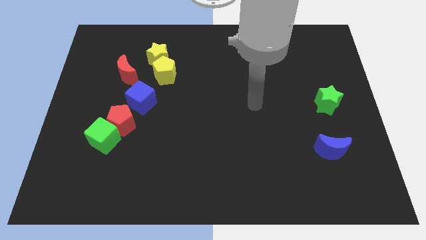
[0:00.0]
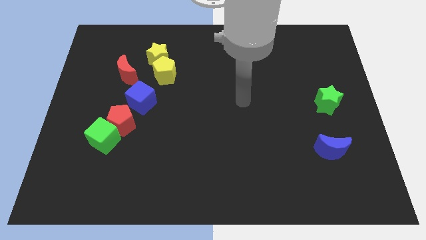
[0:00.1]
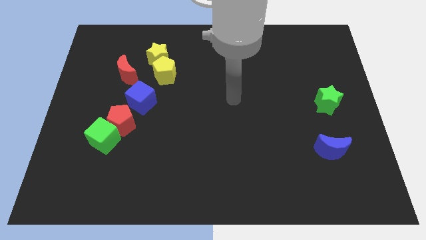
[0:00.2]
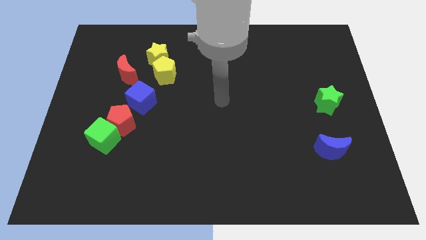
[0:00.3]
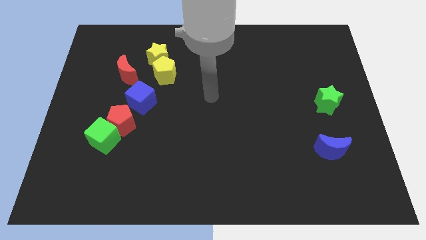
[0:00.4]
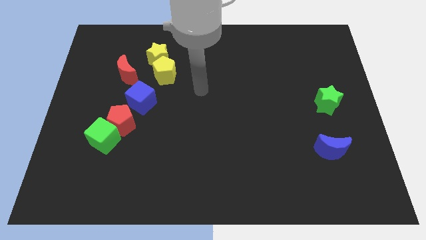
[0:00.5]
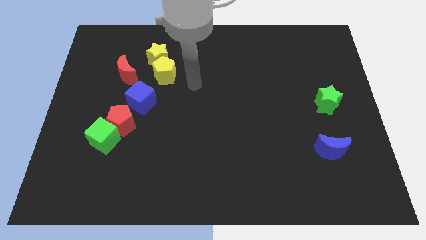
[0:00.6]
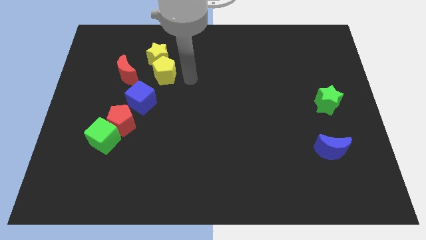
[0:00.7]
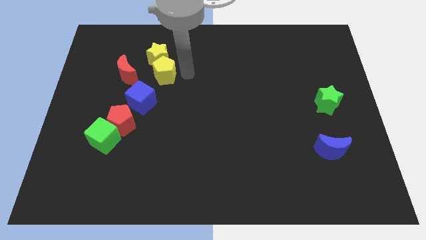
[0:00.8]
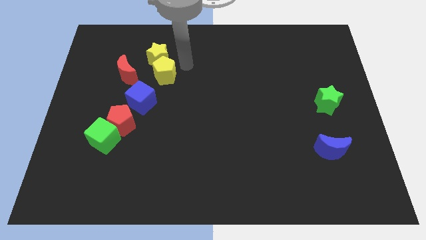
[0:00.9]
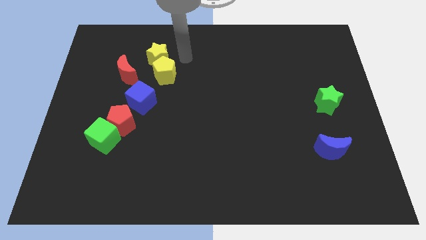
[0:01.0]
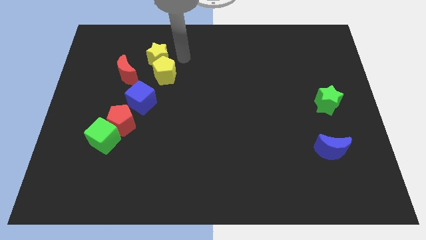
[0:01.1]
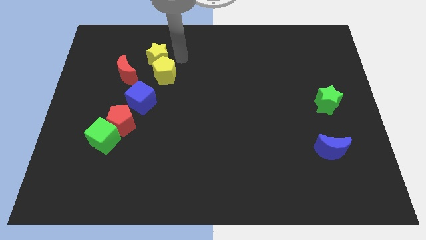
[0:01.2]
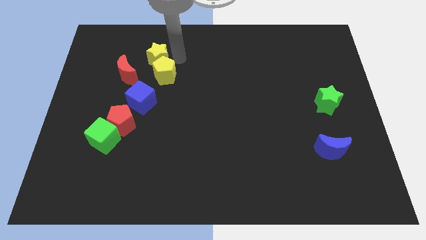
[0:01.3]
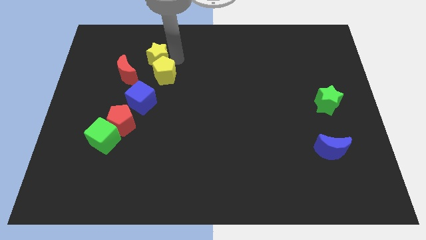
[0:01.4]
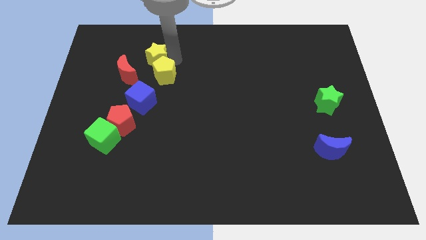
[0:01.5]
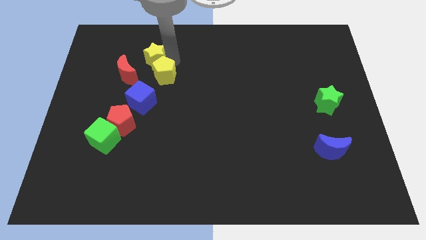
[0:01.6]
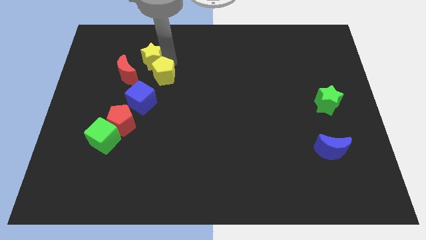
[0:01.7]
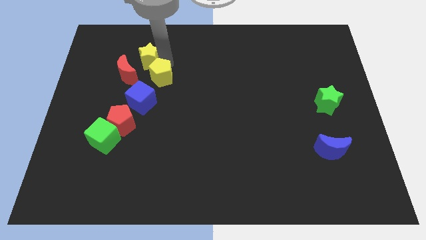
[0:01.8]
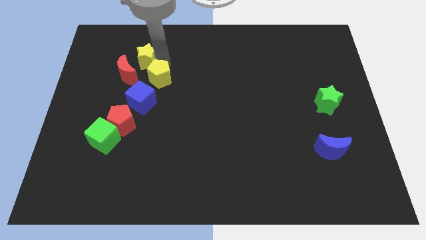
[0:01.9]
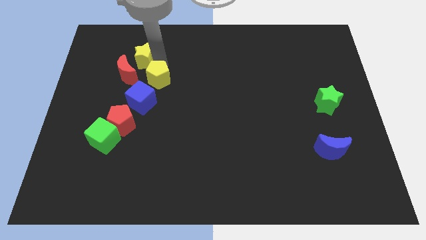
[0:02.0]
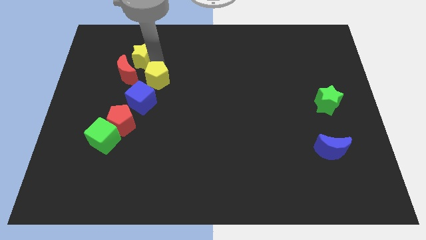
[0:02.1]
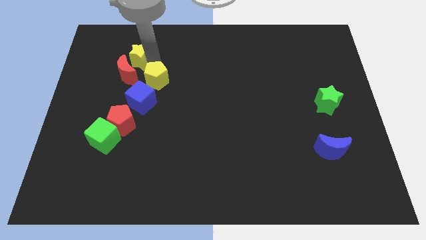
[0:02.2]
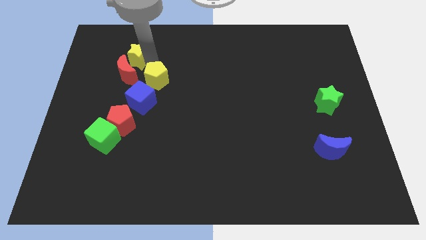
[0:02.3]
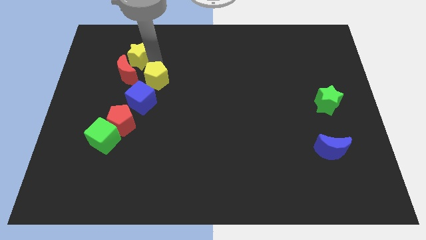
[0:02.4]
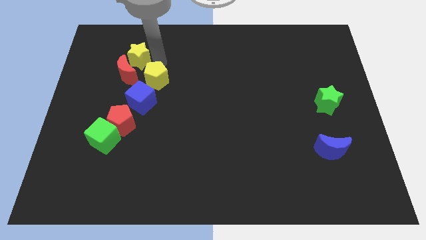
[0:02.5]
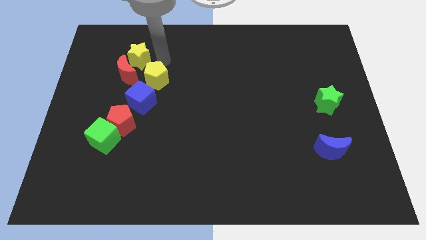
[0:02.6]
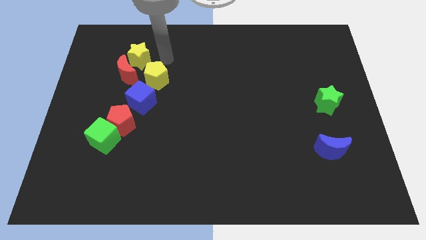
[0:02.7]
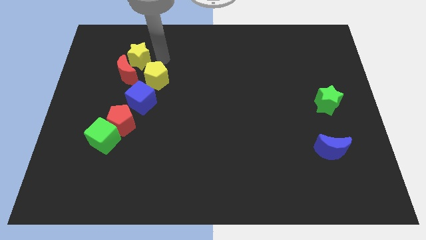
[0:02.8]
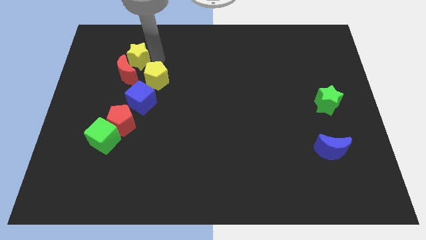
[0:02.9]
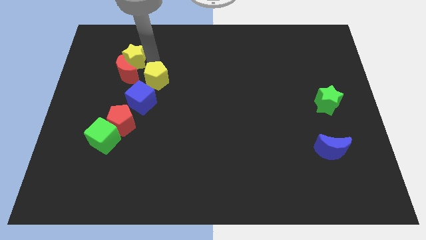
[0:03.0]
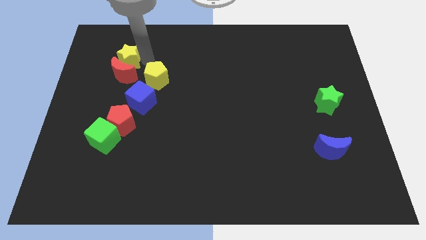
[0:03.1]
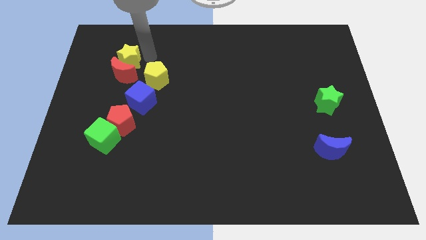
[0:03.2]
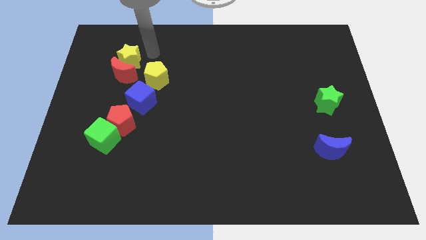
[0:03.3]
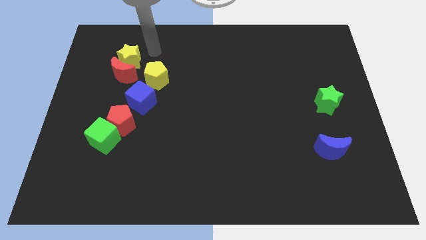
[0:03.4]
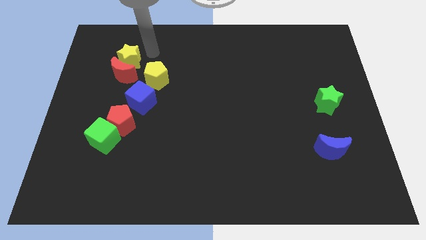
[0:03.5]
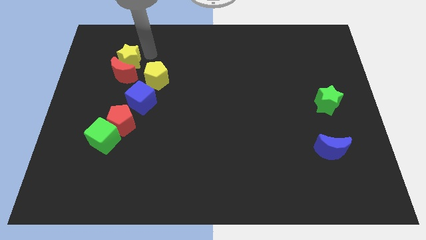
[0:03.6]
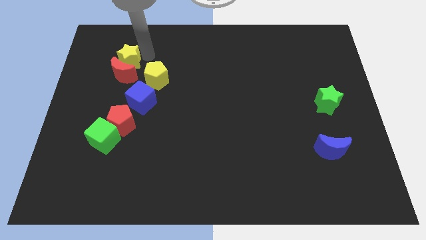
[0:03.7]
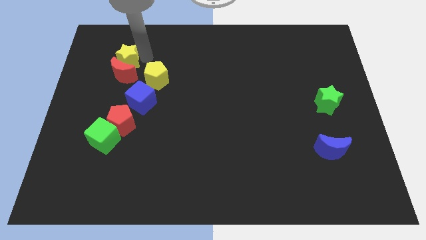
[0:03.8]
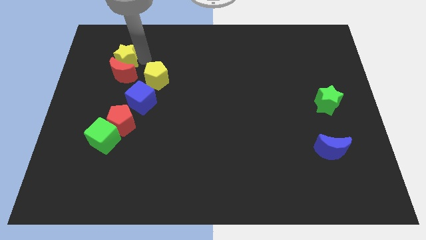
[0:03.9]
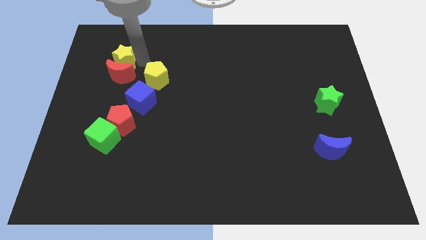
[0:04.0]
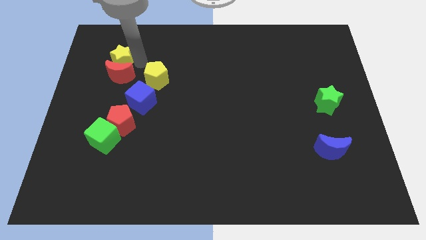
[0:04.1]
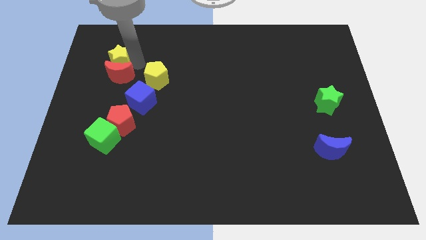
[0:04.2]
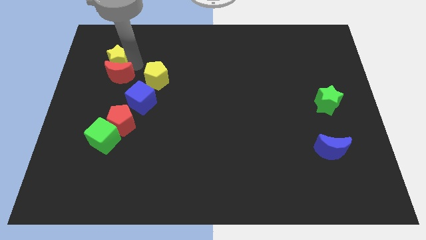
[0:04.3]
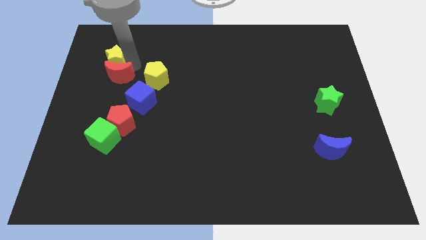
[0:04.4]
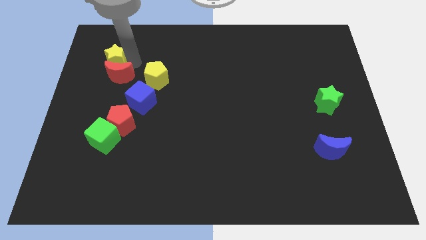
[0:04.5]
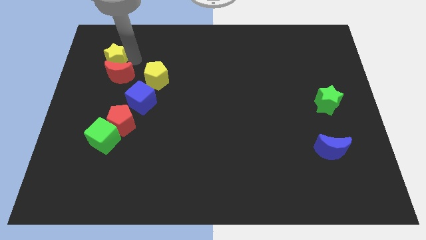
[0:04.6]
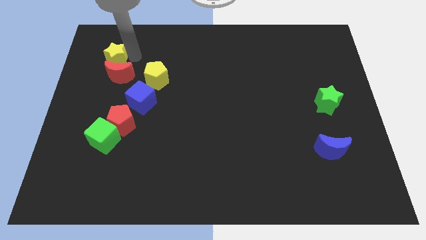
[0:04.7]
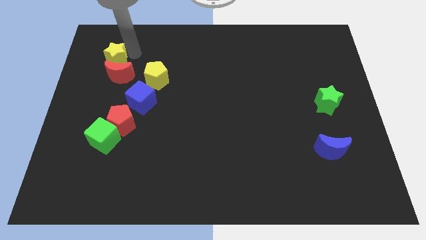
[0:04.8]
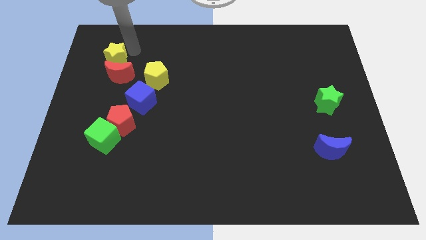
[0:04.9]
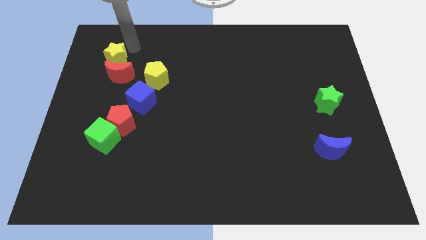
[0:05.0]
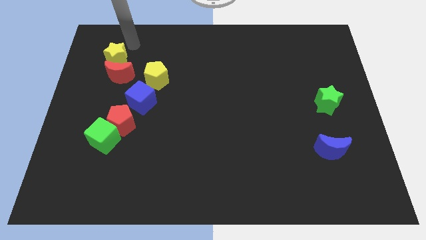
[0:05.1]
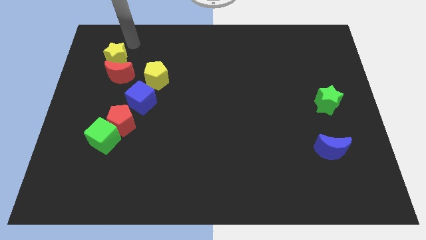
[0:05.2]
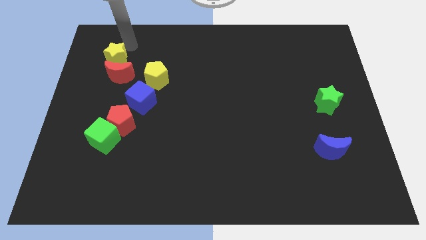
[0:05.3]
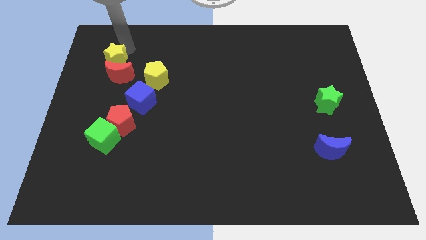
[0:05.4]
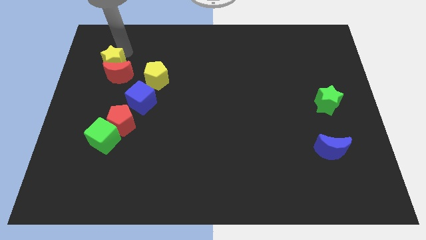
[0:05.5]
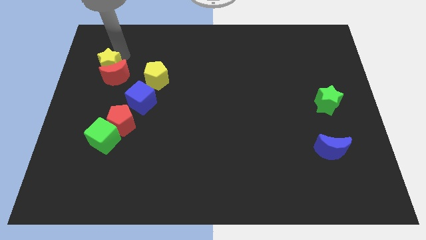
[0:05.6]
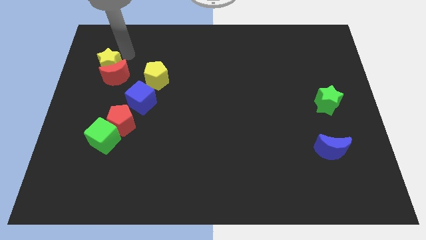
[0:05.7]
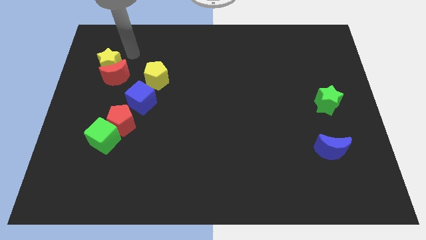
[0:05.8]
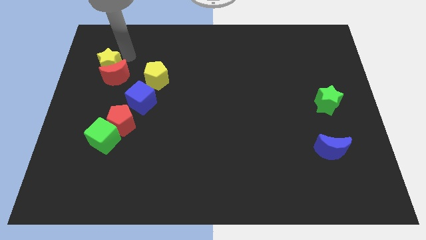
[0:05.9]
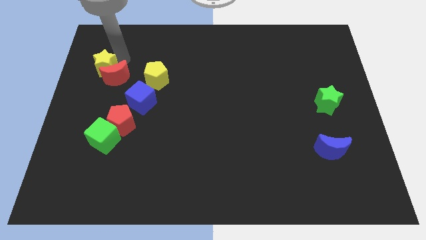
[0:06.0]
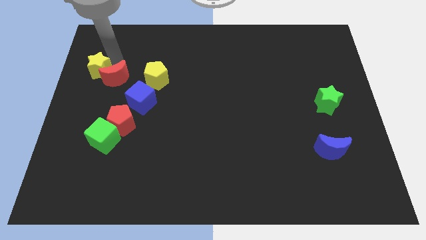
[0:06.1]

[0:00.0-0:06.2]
slide the yellow star to the left side of the board

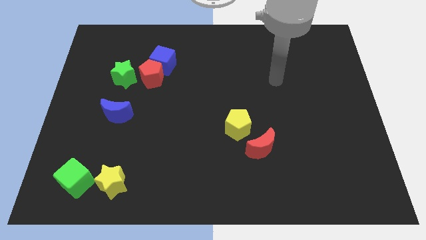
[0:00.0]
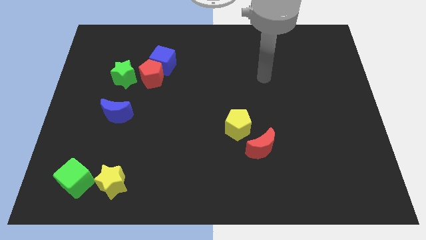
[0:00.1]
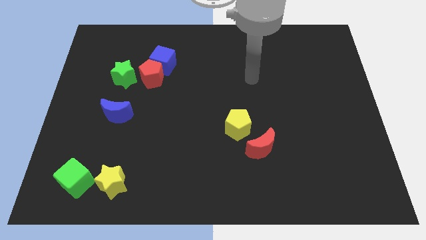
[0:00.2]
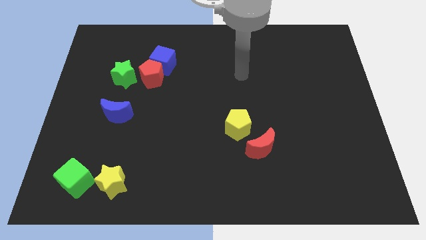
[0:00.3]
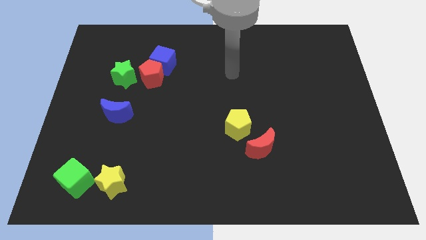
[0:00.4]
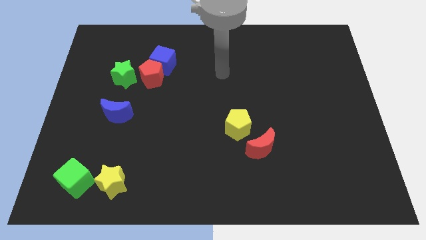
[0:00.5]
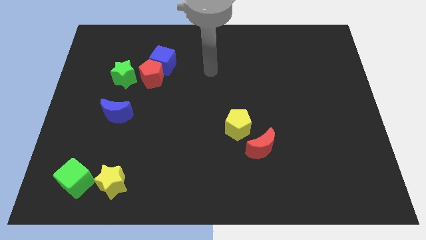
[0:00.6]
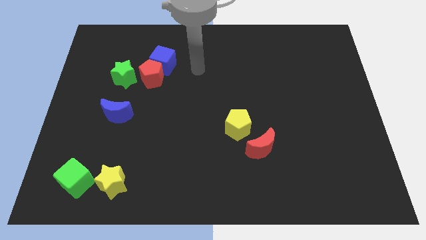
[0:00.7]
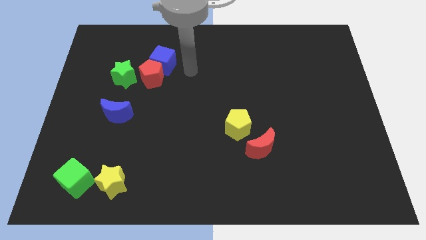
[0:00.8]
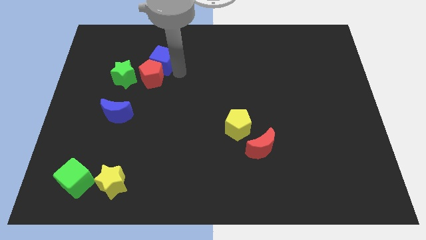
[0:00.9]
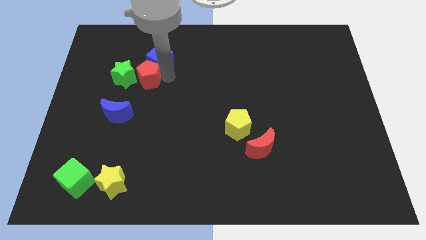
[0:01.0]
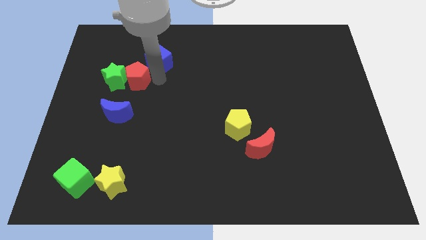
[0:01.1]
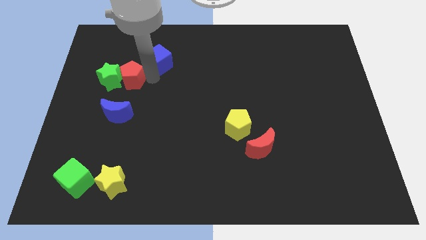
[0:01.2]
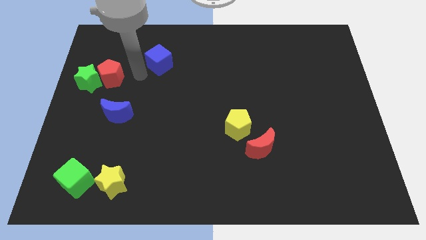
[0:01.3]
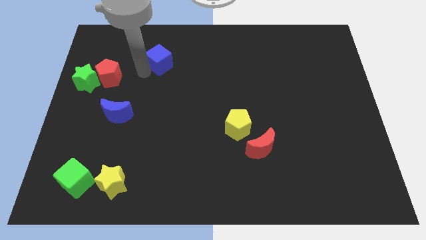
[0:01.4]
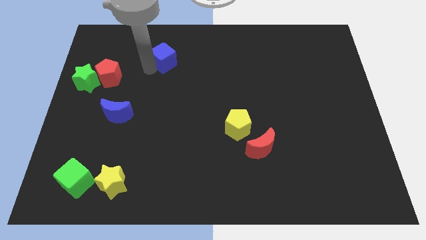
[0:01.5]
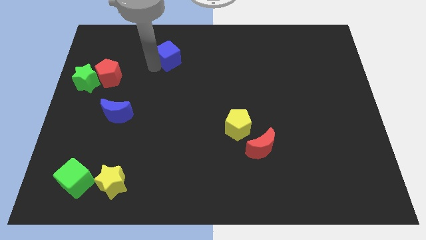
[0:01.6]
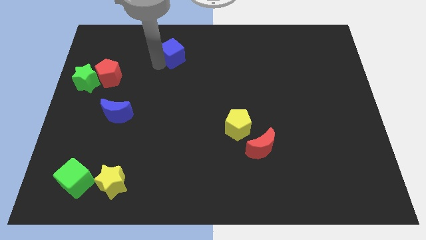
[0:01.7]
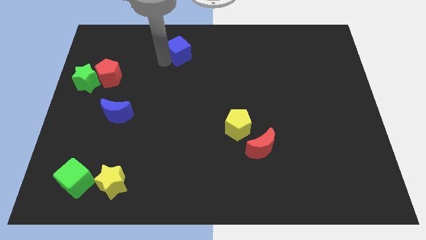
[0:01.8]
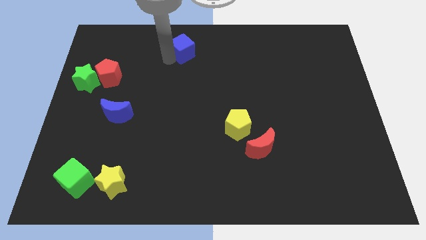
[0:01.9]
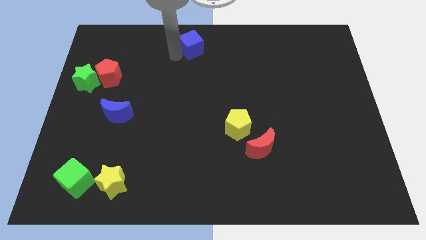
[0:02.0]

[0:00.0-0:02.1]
slide the blue cube to the top

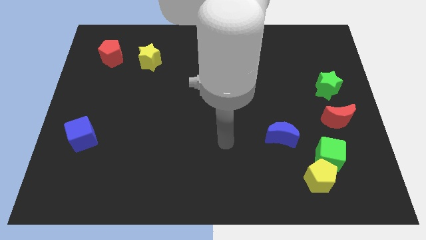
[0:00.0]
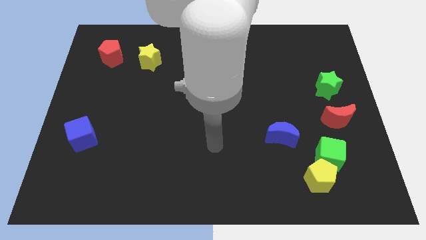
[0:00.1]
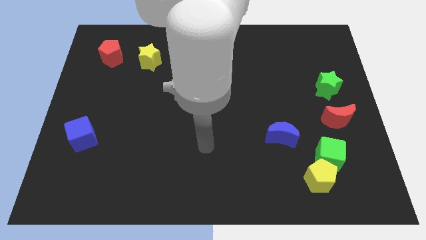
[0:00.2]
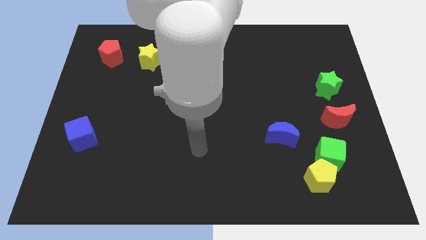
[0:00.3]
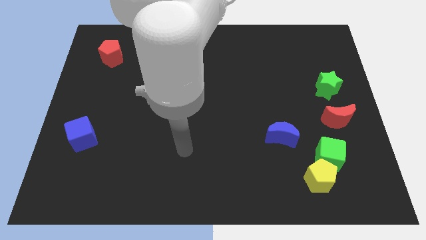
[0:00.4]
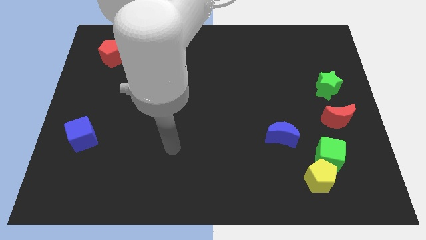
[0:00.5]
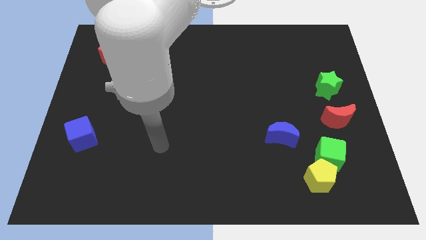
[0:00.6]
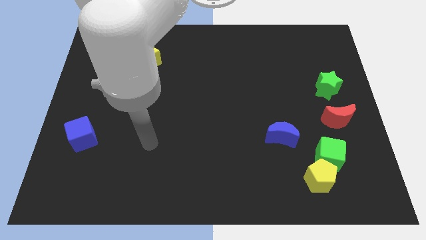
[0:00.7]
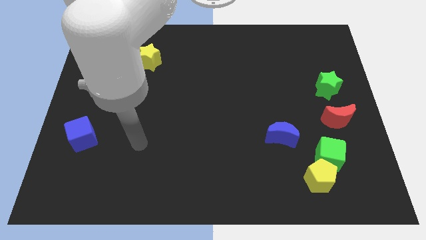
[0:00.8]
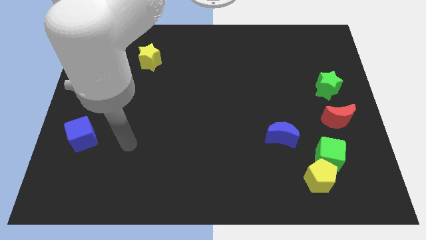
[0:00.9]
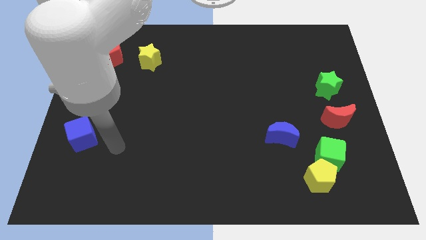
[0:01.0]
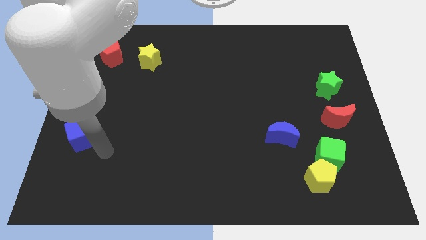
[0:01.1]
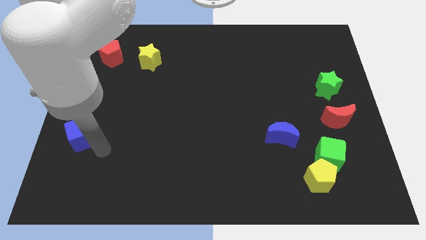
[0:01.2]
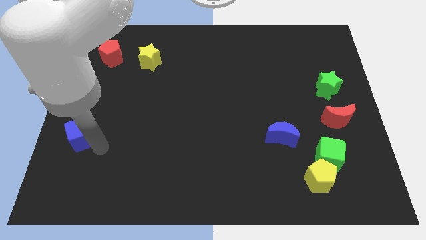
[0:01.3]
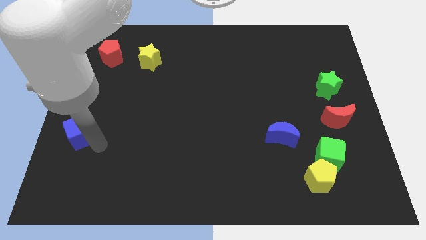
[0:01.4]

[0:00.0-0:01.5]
slide the blue cube to the center left
